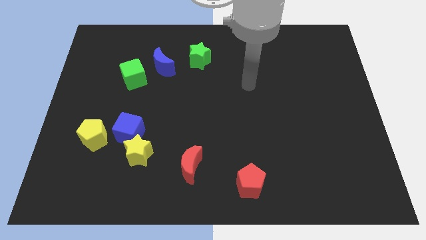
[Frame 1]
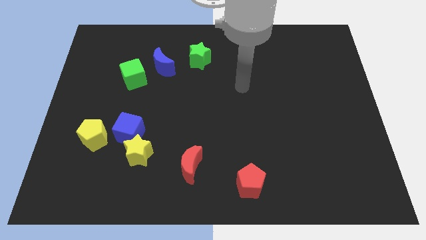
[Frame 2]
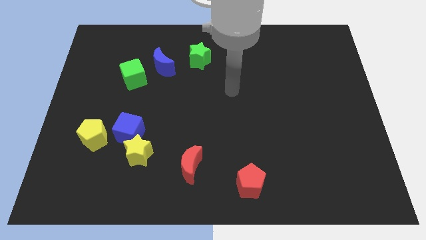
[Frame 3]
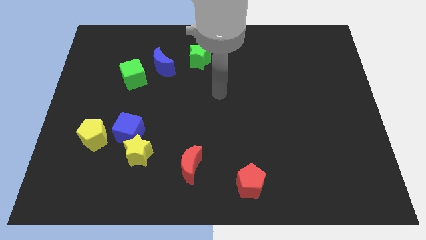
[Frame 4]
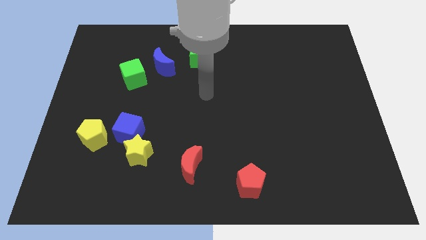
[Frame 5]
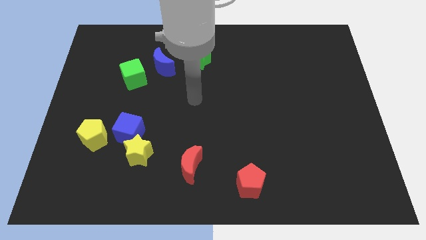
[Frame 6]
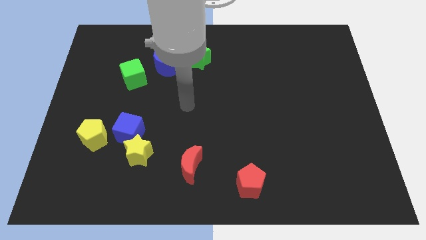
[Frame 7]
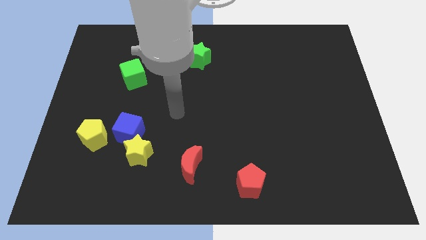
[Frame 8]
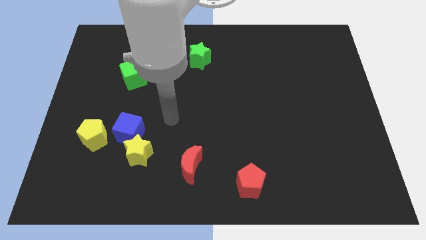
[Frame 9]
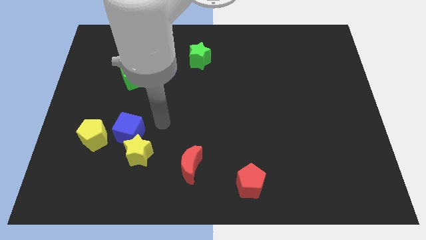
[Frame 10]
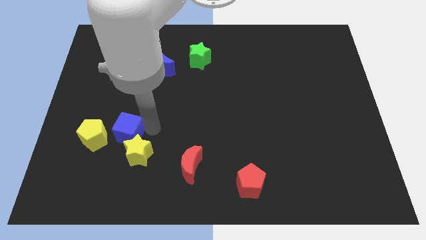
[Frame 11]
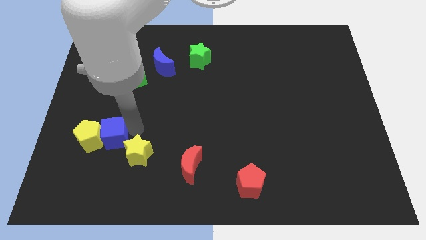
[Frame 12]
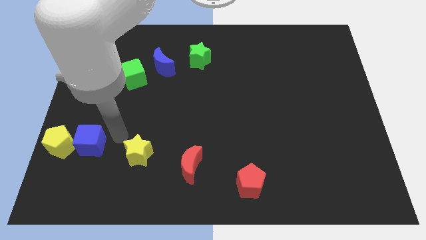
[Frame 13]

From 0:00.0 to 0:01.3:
move the yellow star away from the blue cube

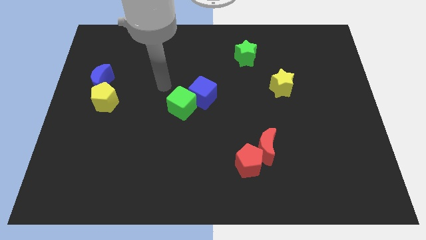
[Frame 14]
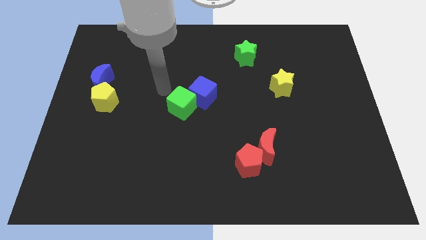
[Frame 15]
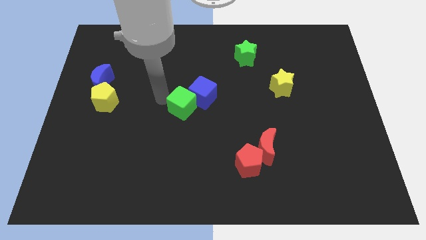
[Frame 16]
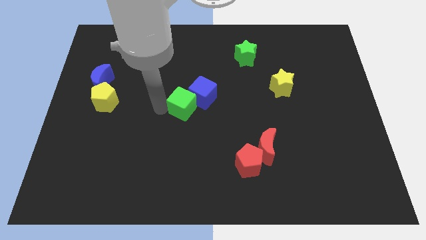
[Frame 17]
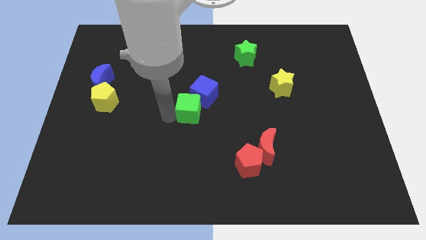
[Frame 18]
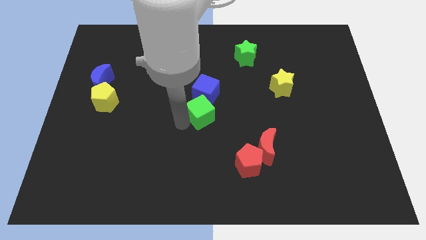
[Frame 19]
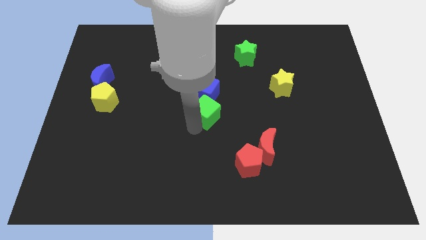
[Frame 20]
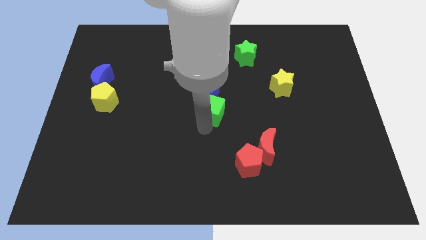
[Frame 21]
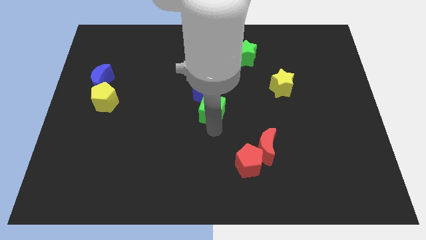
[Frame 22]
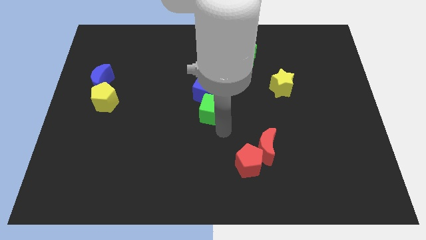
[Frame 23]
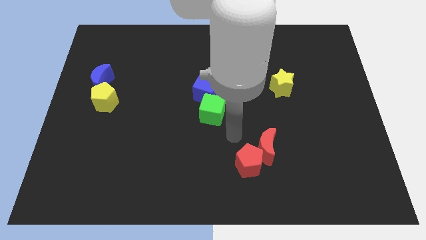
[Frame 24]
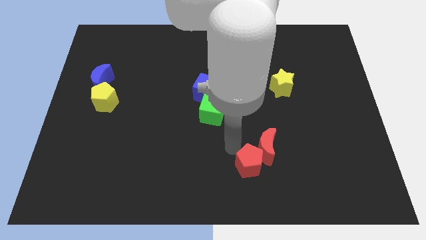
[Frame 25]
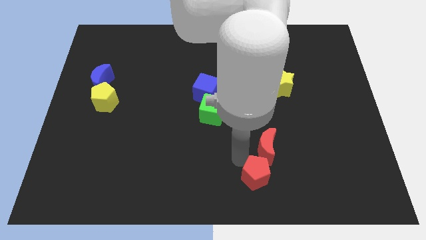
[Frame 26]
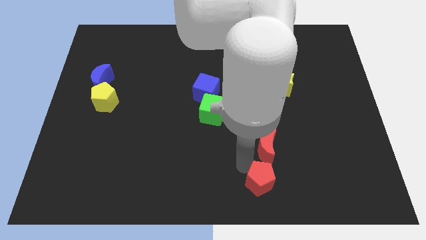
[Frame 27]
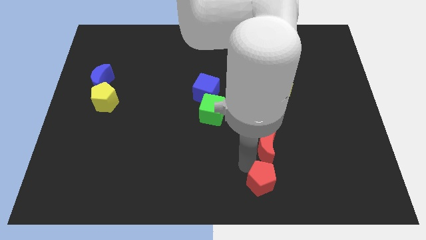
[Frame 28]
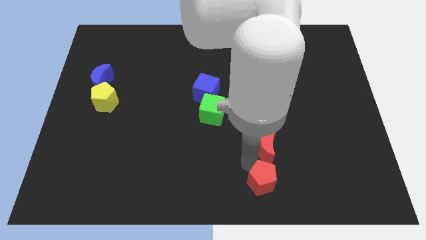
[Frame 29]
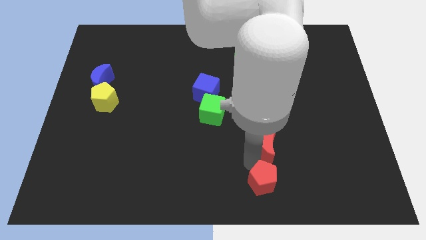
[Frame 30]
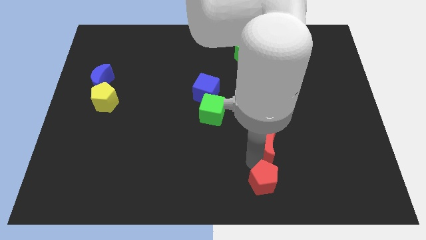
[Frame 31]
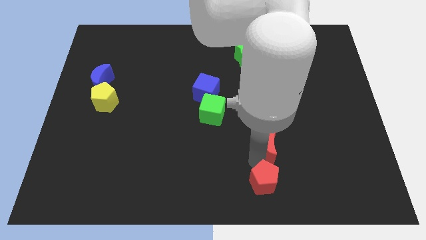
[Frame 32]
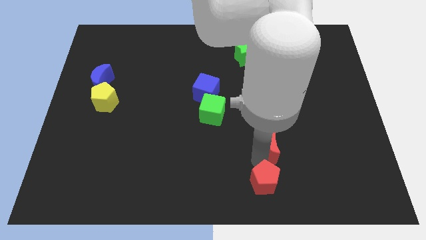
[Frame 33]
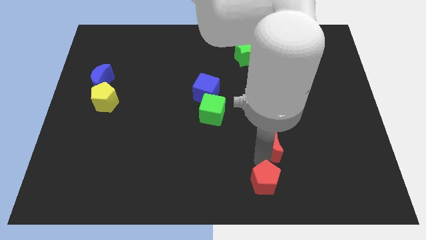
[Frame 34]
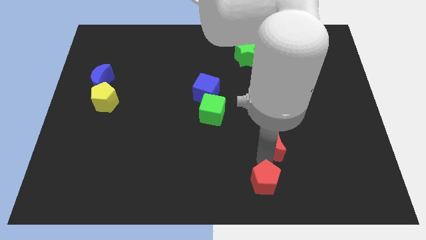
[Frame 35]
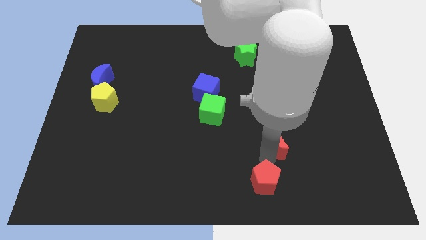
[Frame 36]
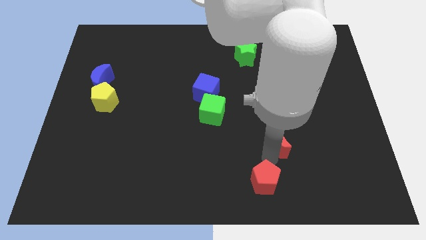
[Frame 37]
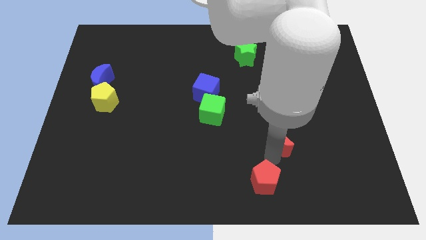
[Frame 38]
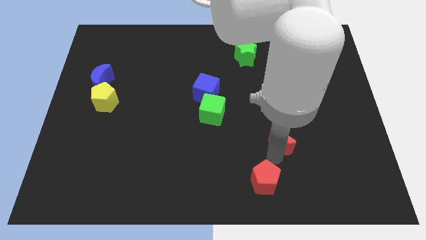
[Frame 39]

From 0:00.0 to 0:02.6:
move the red moon away from the red pentagon

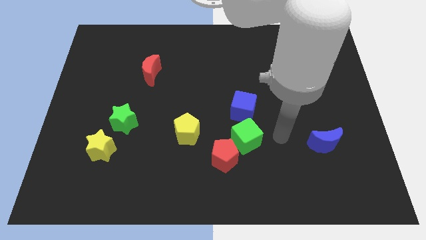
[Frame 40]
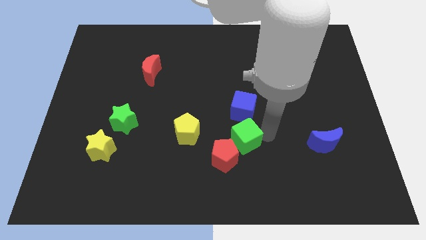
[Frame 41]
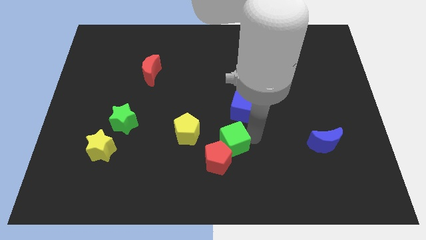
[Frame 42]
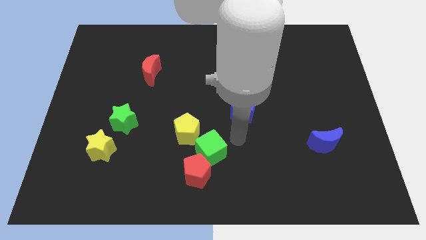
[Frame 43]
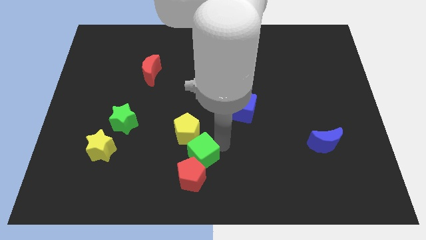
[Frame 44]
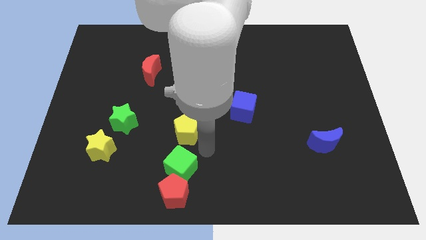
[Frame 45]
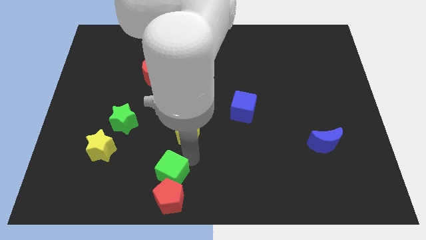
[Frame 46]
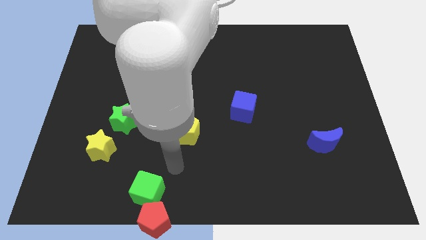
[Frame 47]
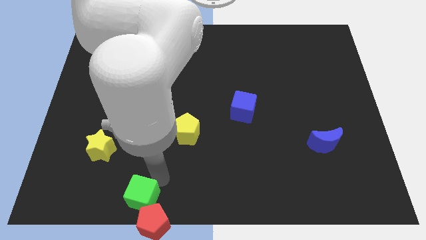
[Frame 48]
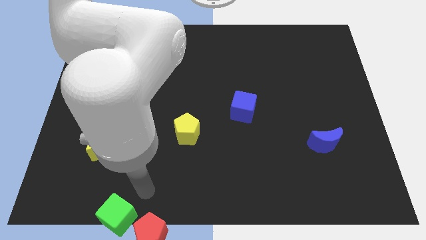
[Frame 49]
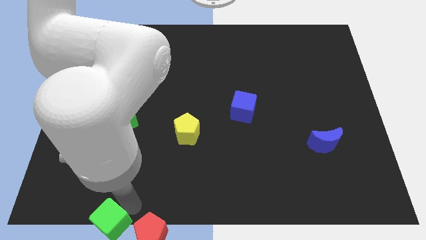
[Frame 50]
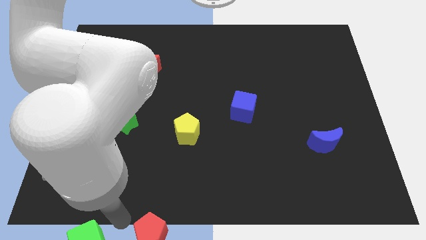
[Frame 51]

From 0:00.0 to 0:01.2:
separate the red pentagon from the green cube

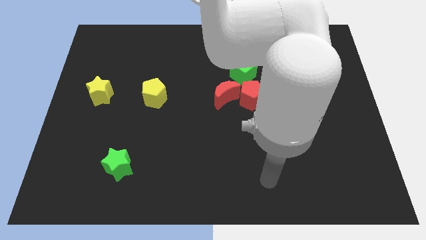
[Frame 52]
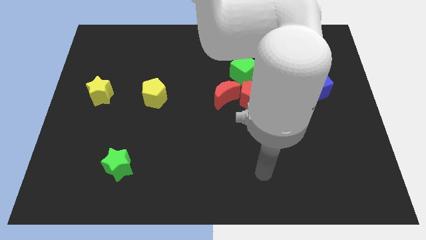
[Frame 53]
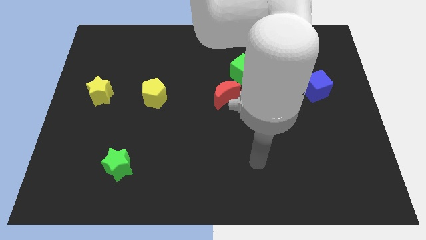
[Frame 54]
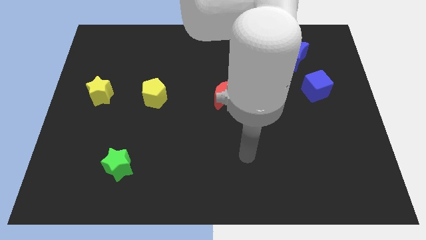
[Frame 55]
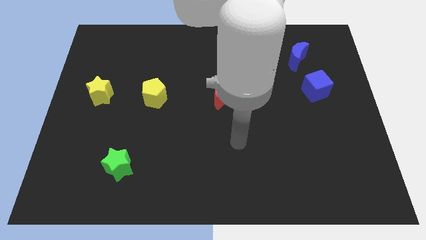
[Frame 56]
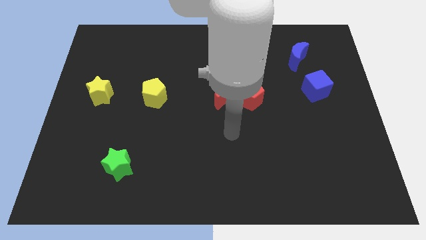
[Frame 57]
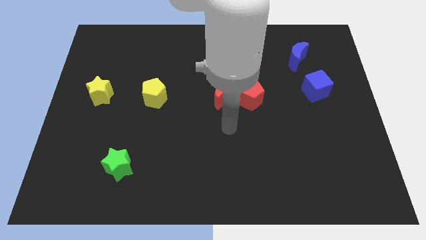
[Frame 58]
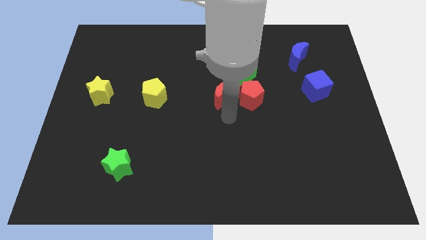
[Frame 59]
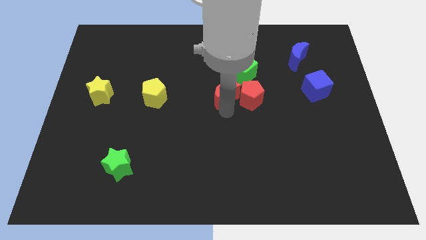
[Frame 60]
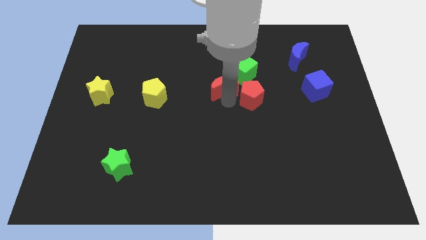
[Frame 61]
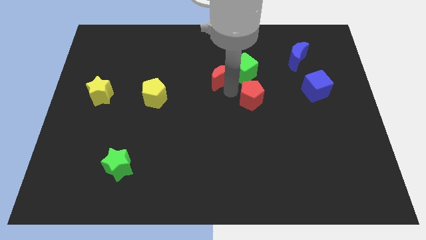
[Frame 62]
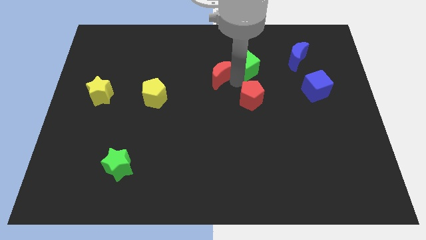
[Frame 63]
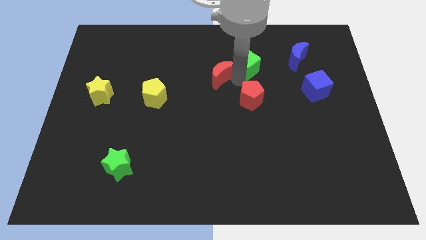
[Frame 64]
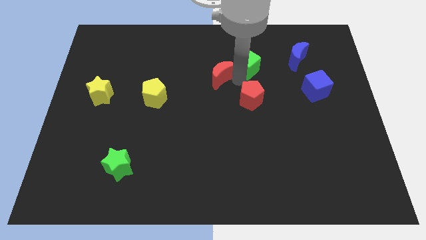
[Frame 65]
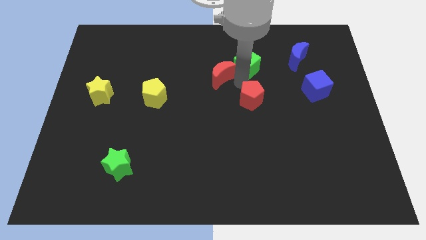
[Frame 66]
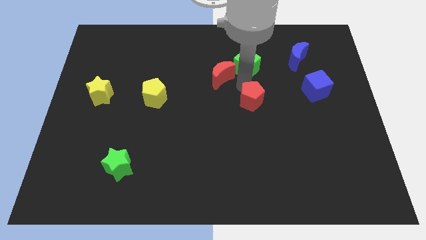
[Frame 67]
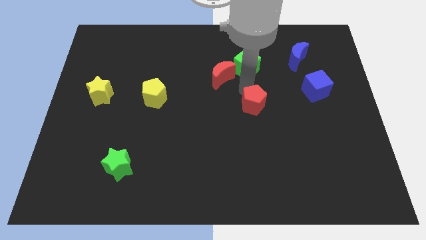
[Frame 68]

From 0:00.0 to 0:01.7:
move the red pentagon away from the red moon and green cube

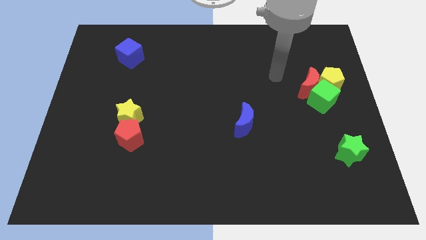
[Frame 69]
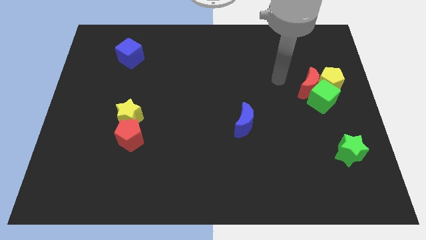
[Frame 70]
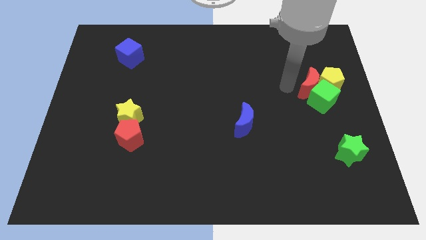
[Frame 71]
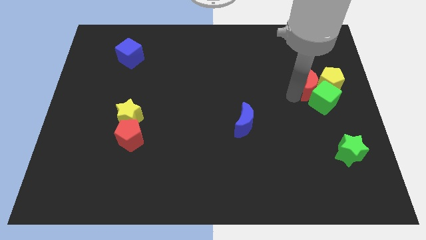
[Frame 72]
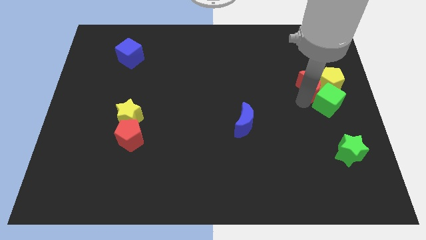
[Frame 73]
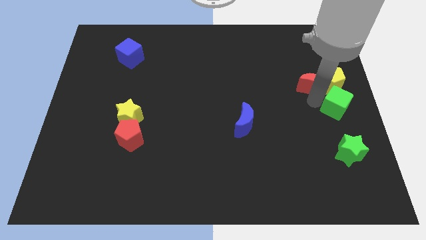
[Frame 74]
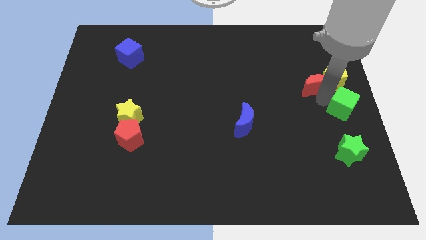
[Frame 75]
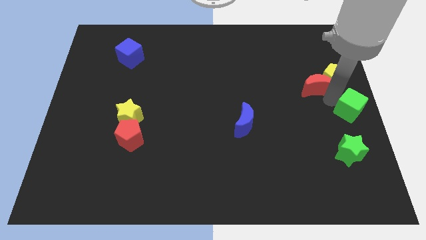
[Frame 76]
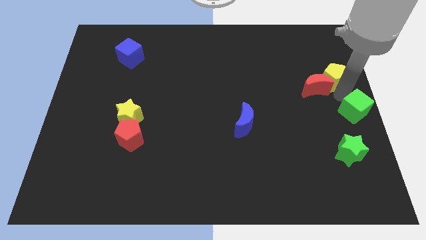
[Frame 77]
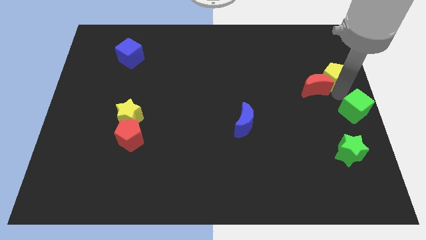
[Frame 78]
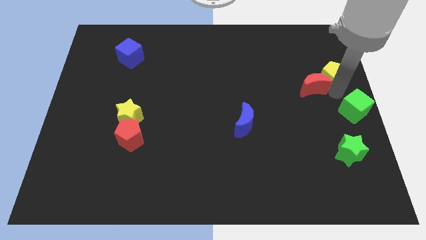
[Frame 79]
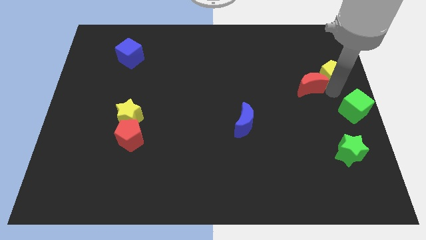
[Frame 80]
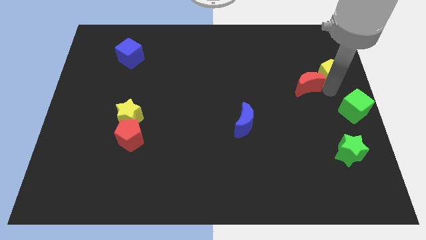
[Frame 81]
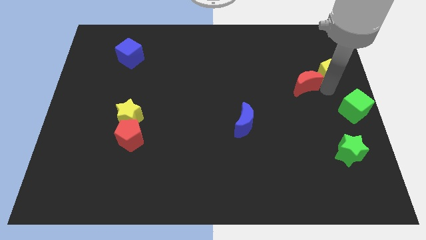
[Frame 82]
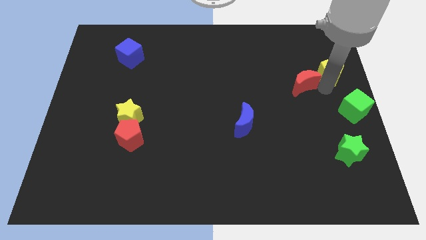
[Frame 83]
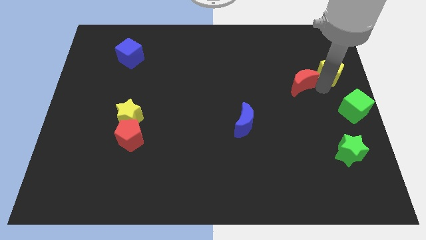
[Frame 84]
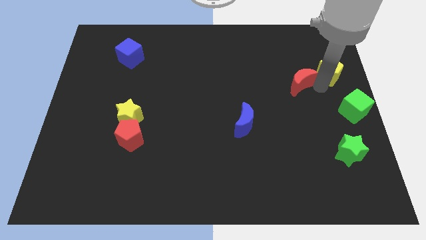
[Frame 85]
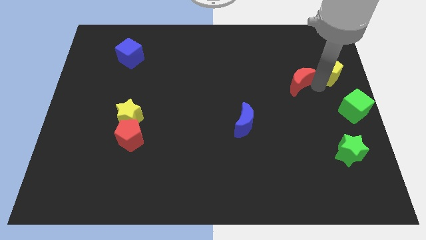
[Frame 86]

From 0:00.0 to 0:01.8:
separate the red moon from the green cube and yellow pentagon

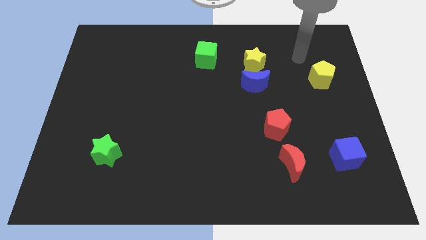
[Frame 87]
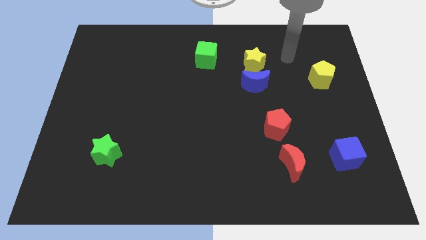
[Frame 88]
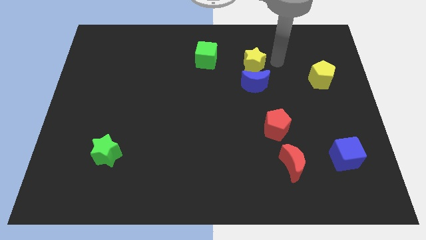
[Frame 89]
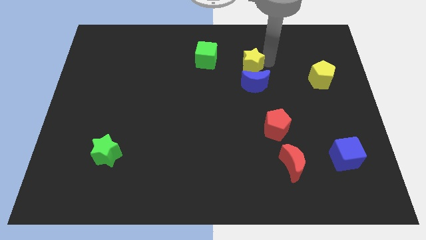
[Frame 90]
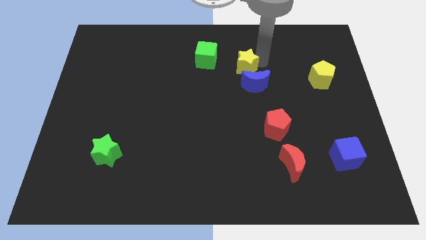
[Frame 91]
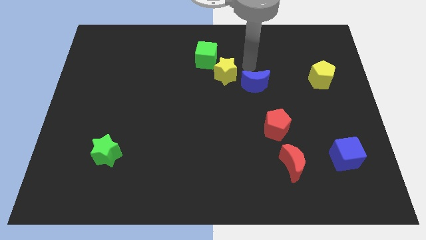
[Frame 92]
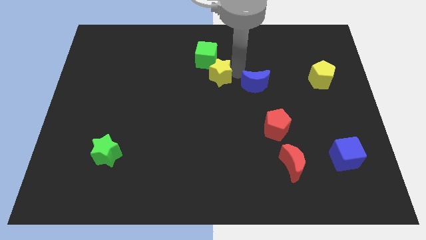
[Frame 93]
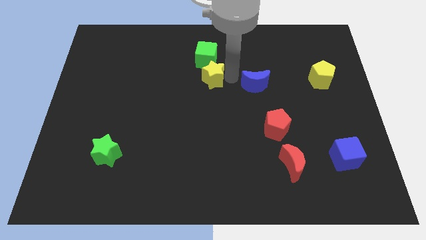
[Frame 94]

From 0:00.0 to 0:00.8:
separate the blue moon from the yellow star
